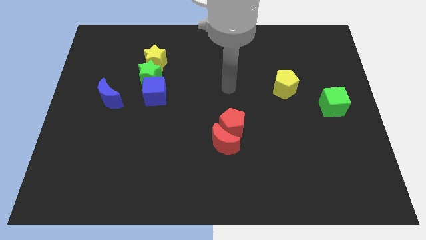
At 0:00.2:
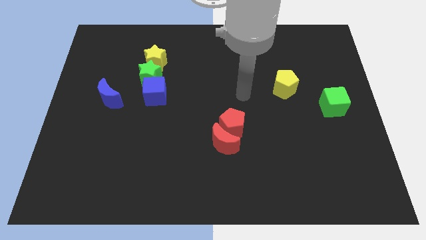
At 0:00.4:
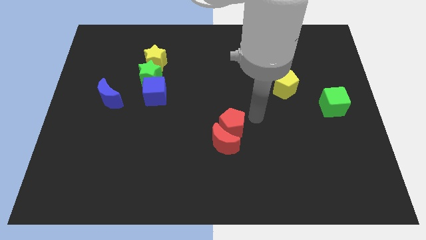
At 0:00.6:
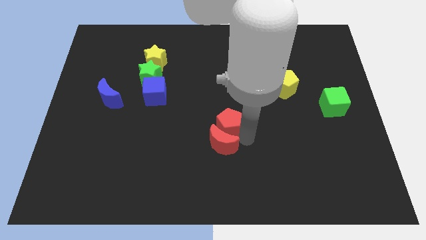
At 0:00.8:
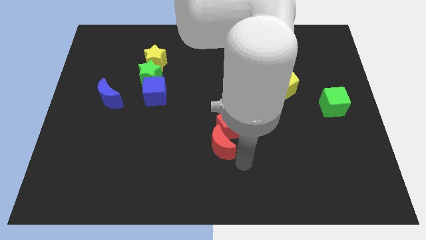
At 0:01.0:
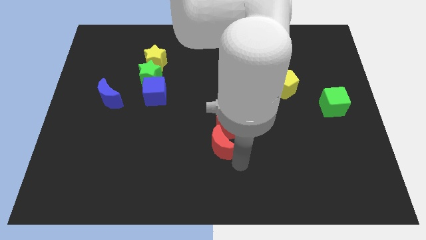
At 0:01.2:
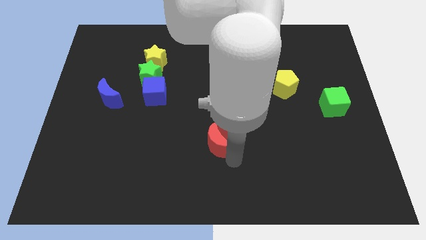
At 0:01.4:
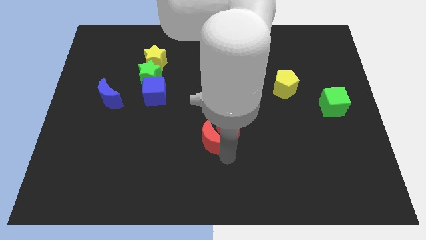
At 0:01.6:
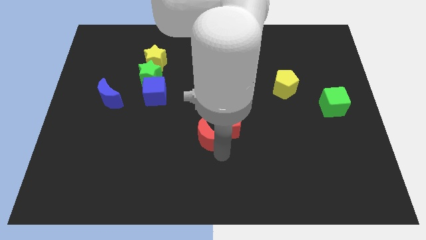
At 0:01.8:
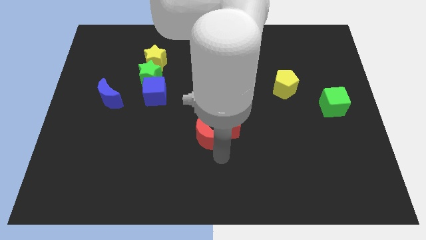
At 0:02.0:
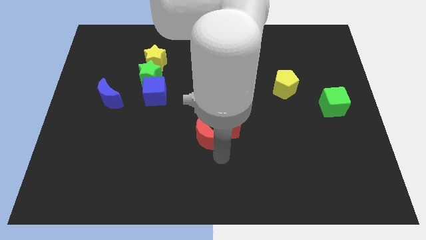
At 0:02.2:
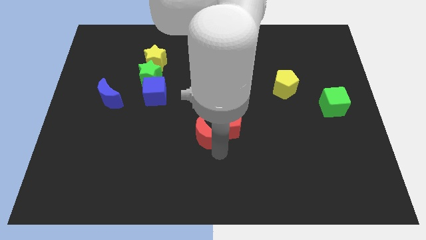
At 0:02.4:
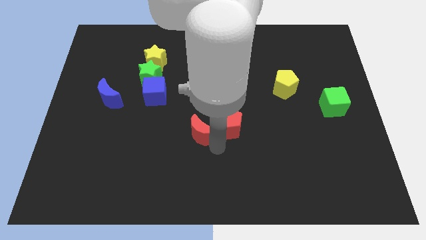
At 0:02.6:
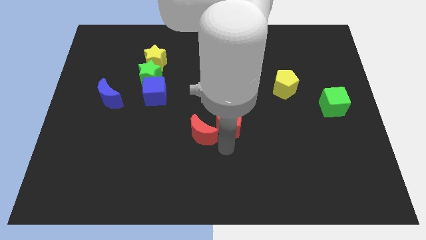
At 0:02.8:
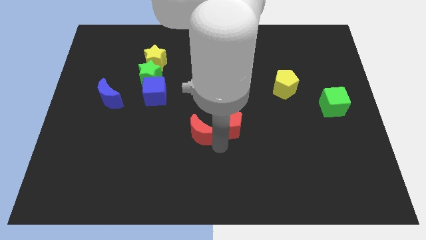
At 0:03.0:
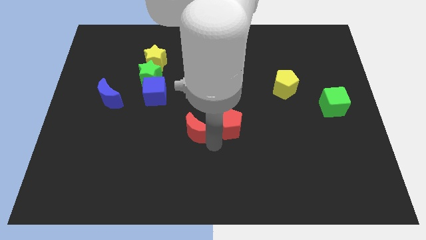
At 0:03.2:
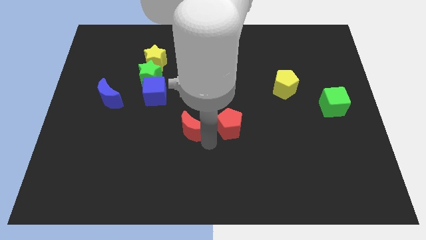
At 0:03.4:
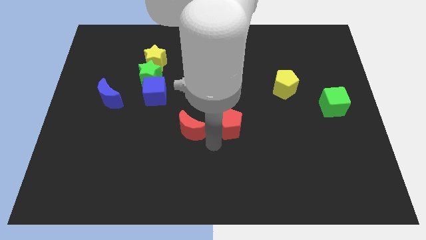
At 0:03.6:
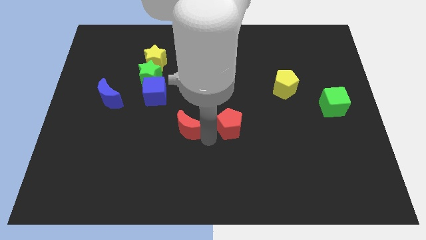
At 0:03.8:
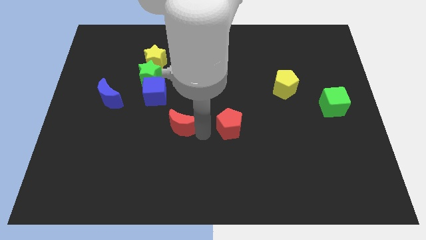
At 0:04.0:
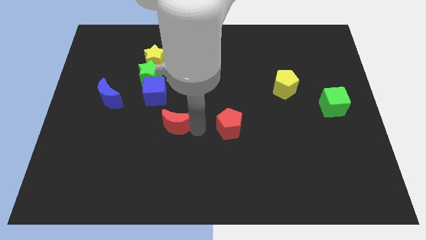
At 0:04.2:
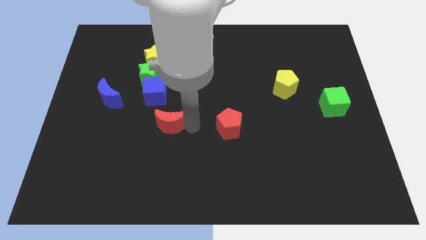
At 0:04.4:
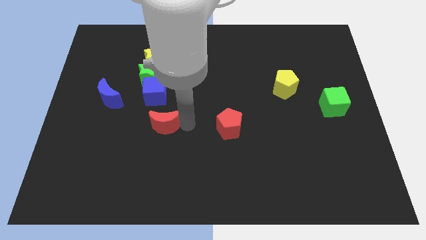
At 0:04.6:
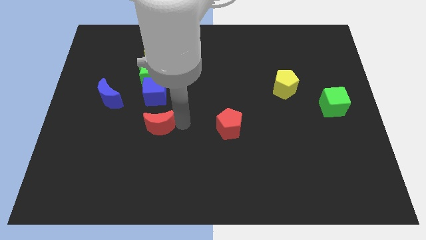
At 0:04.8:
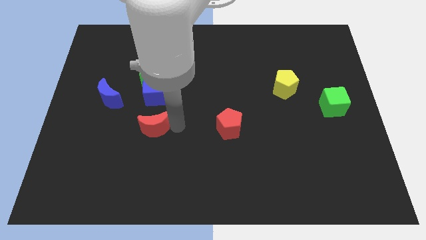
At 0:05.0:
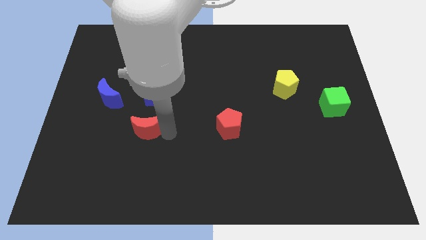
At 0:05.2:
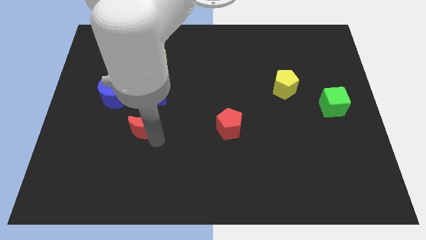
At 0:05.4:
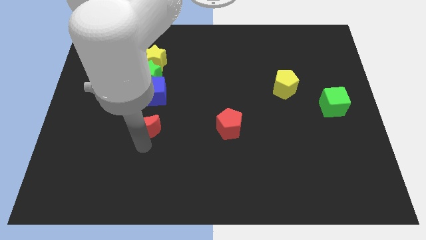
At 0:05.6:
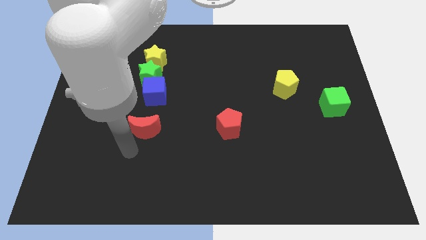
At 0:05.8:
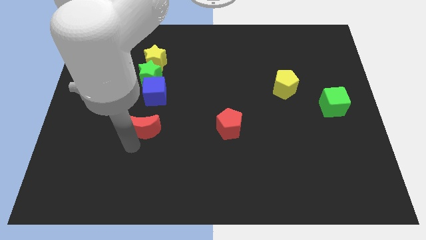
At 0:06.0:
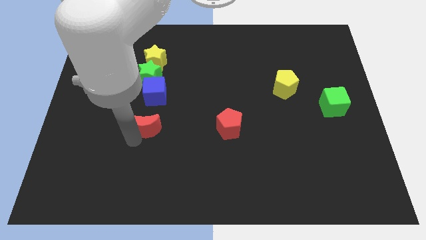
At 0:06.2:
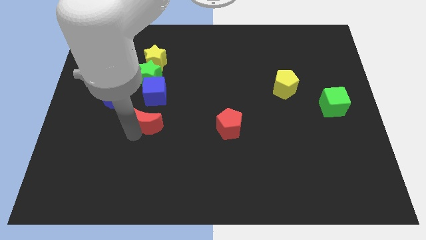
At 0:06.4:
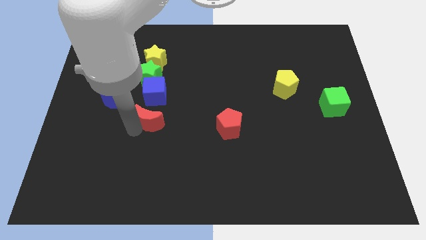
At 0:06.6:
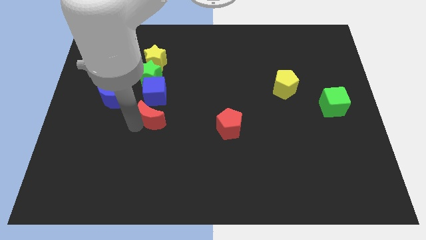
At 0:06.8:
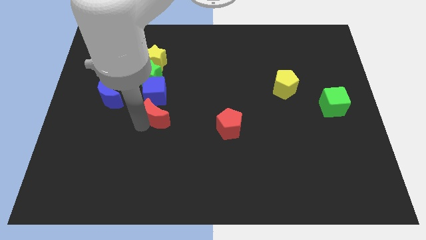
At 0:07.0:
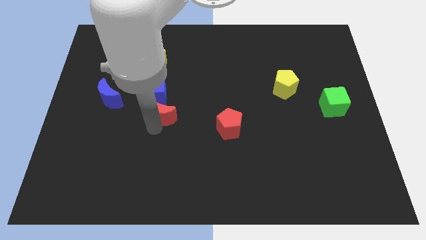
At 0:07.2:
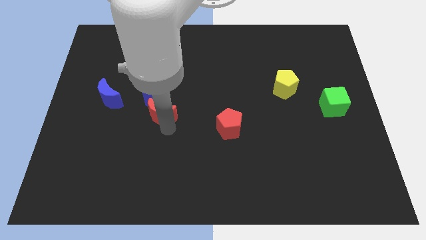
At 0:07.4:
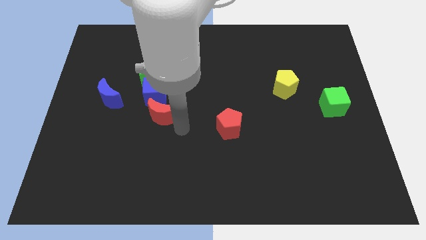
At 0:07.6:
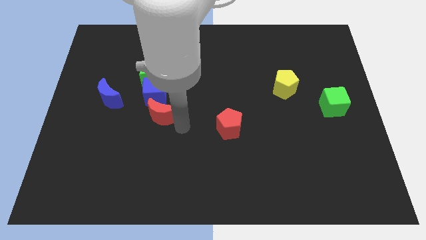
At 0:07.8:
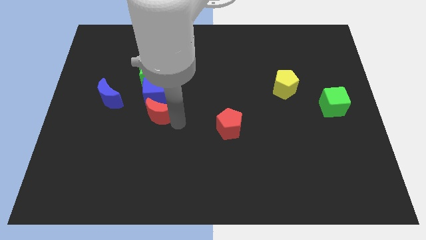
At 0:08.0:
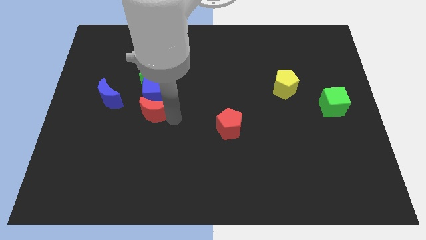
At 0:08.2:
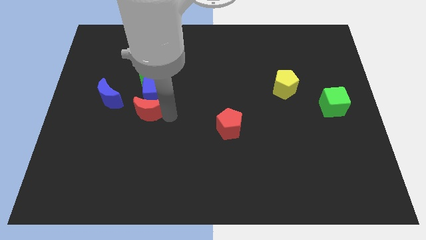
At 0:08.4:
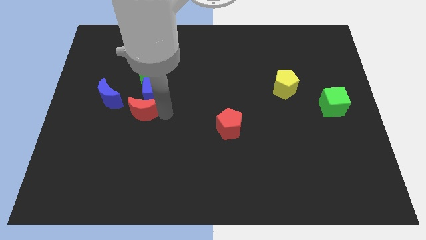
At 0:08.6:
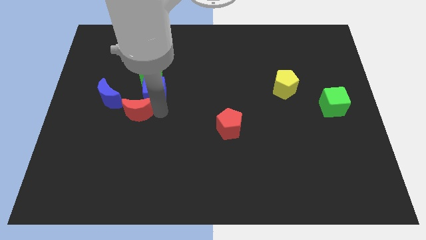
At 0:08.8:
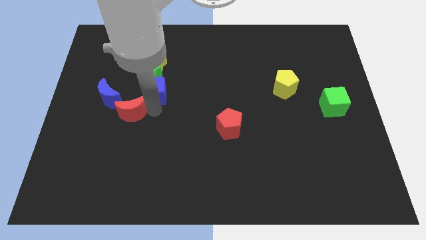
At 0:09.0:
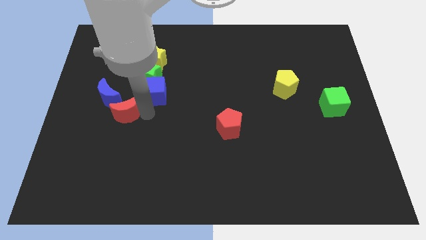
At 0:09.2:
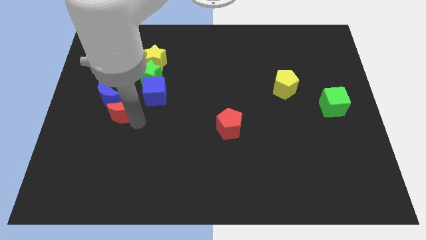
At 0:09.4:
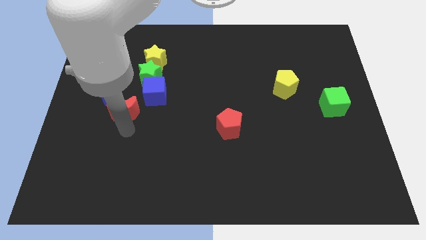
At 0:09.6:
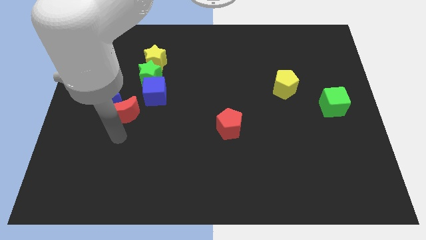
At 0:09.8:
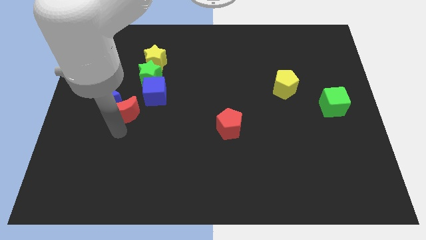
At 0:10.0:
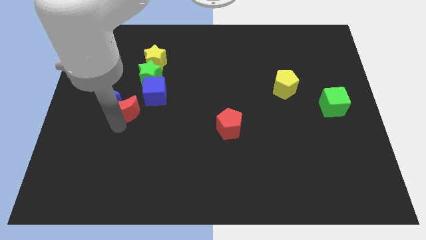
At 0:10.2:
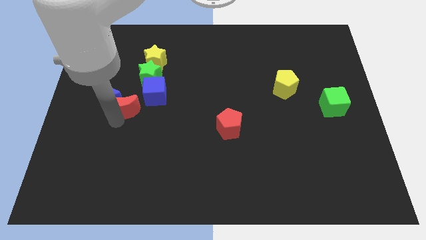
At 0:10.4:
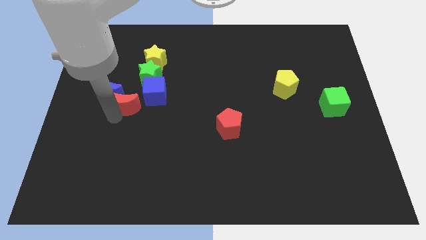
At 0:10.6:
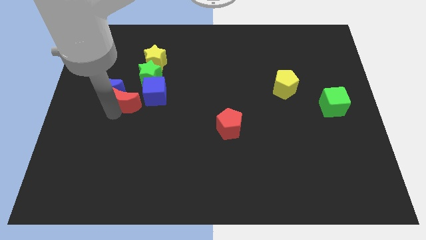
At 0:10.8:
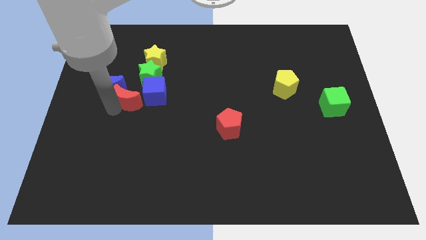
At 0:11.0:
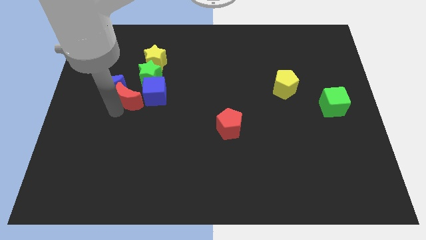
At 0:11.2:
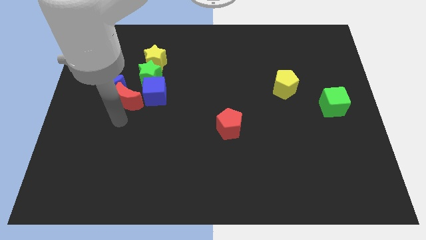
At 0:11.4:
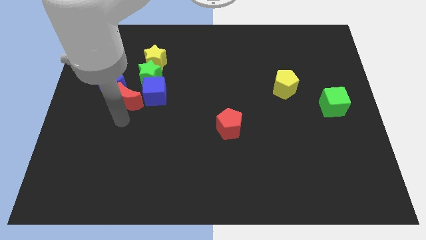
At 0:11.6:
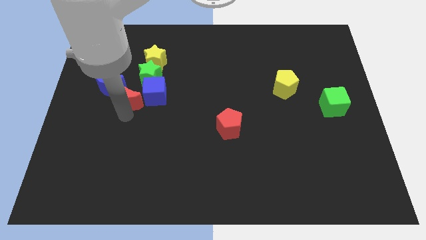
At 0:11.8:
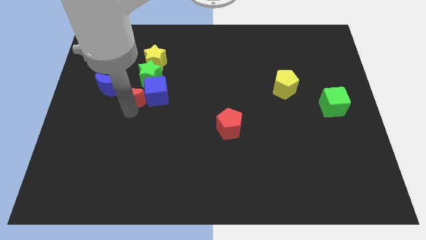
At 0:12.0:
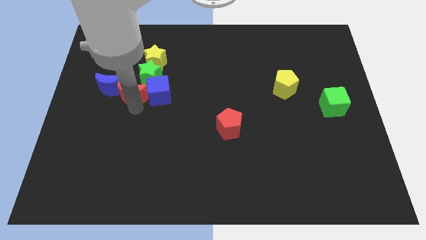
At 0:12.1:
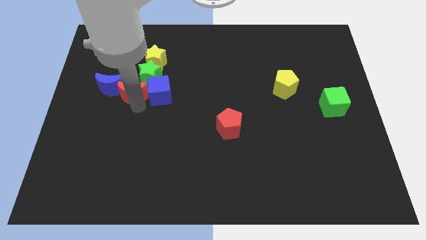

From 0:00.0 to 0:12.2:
push the red moon to the top left of the blue cube

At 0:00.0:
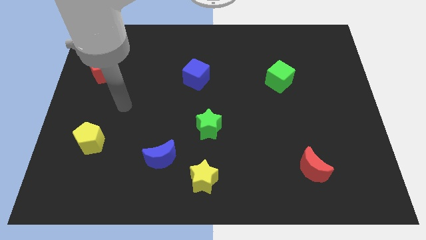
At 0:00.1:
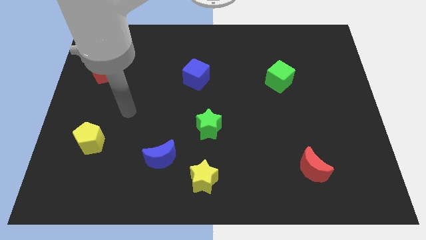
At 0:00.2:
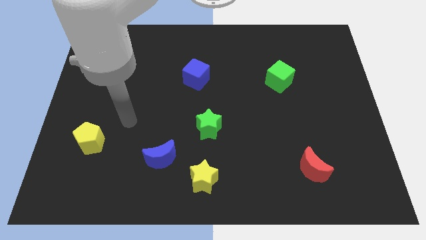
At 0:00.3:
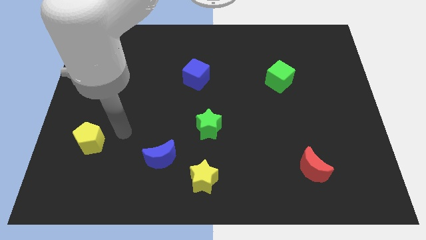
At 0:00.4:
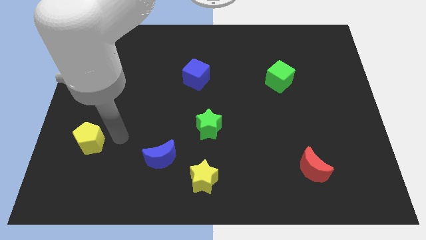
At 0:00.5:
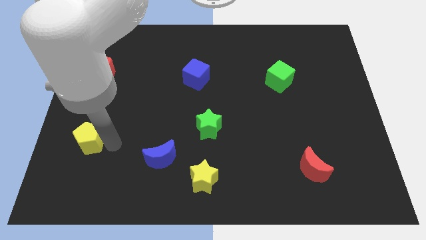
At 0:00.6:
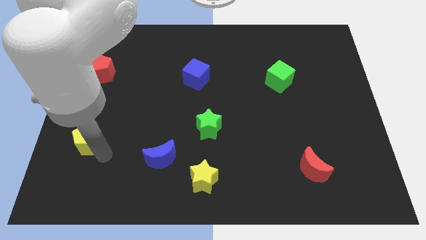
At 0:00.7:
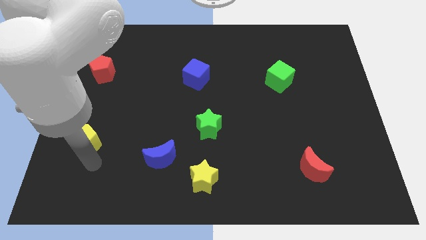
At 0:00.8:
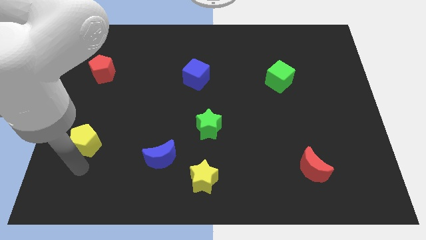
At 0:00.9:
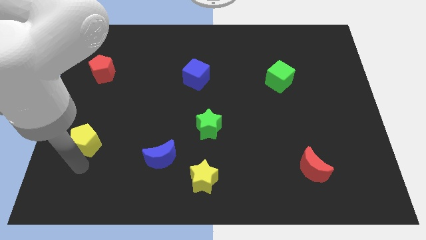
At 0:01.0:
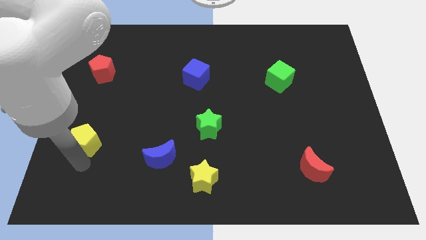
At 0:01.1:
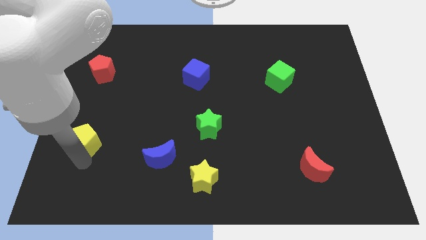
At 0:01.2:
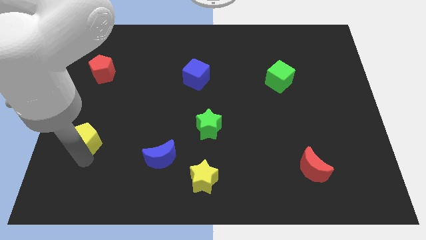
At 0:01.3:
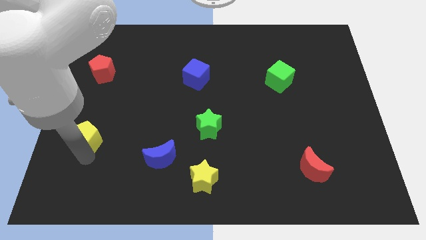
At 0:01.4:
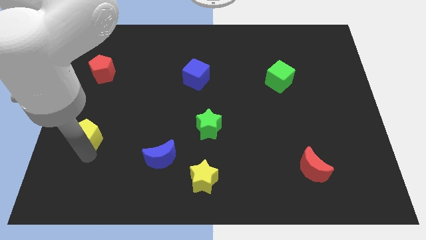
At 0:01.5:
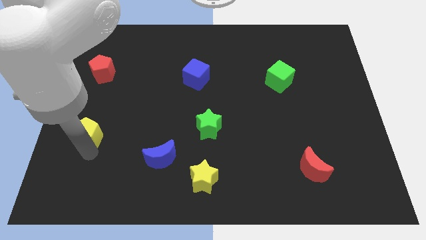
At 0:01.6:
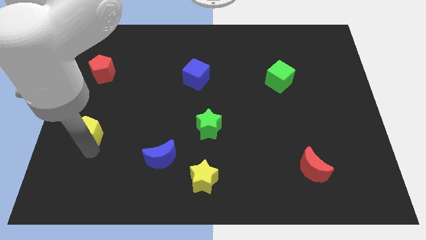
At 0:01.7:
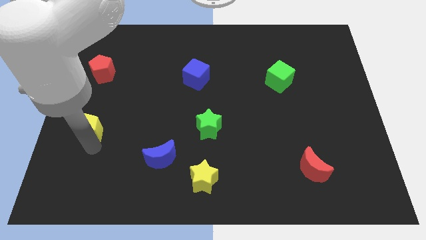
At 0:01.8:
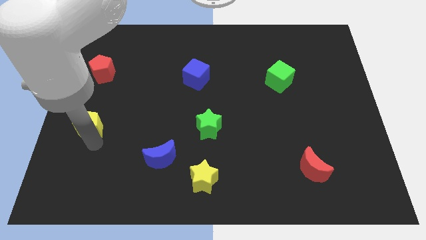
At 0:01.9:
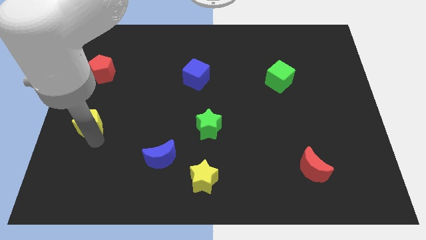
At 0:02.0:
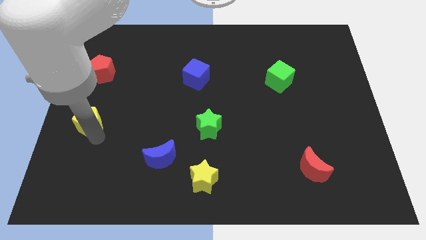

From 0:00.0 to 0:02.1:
put the yellow pentagon below the red pentagon
